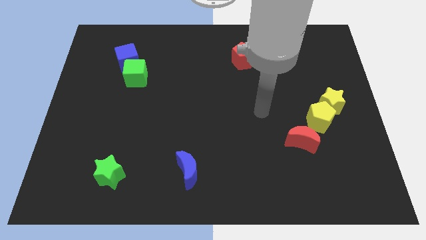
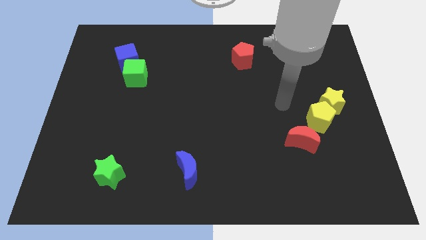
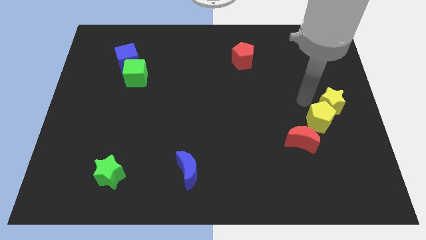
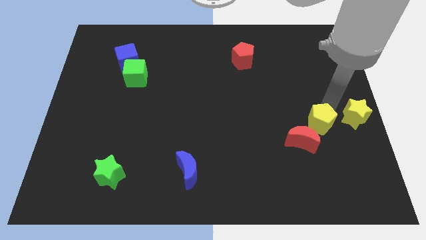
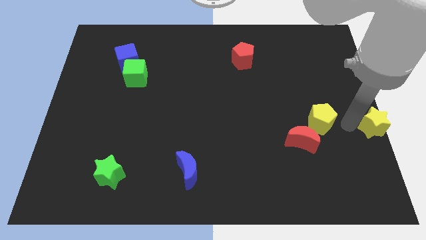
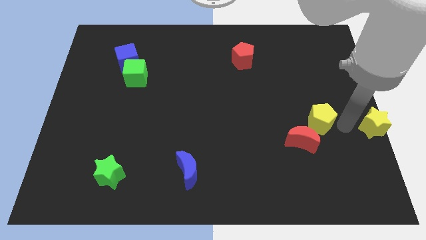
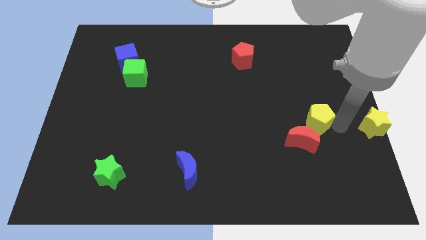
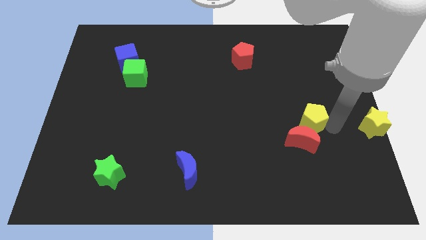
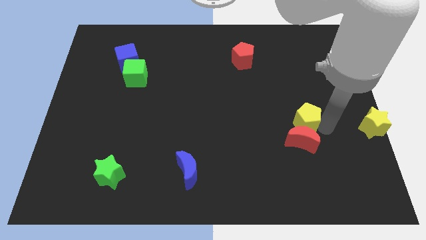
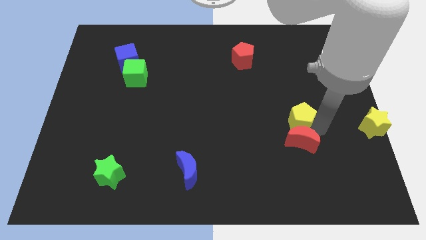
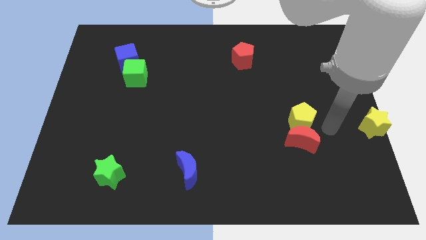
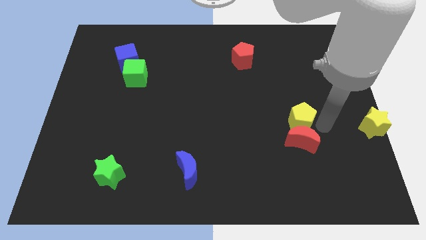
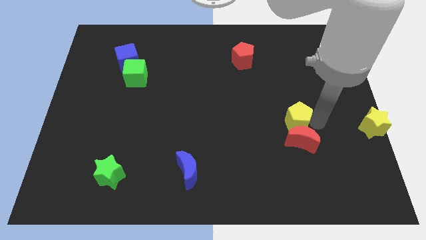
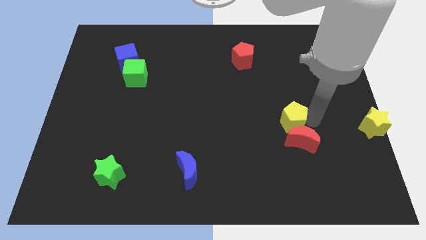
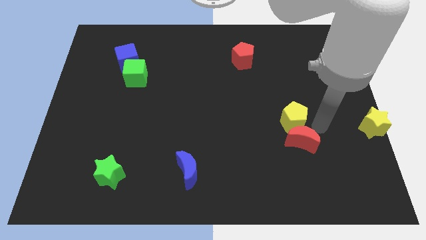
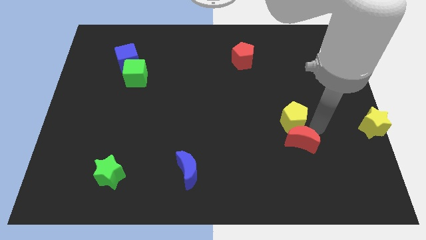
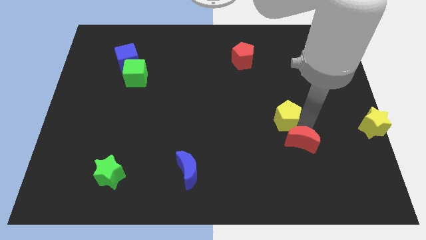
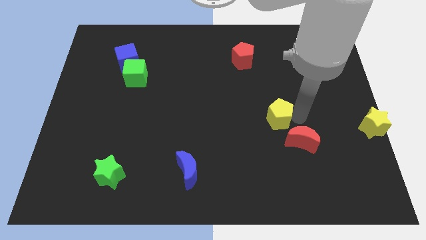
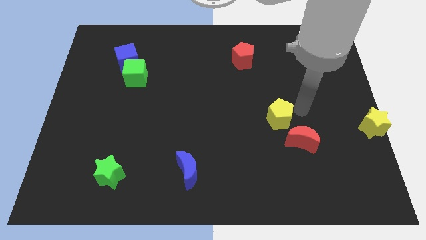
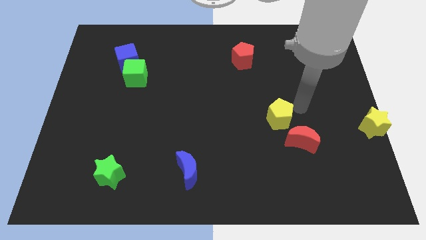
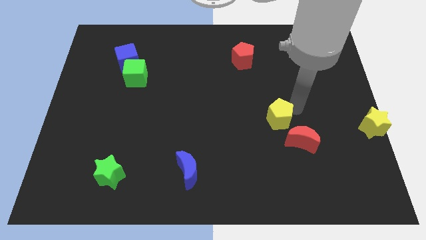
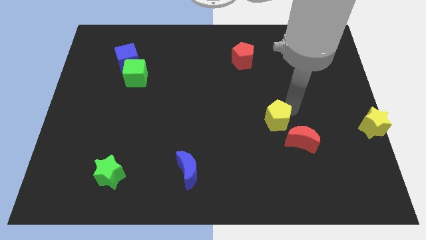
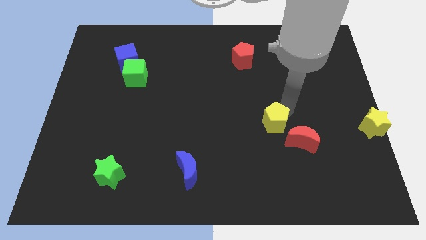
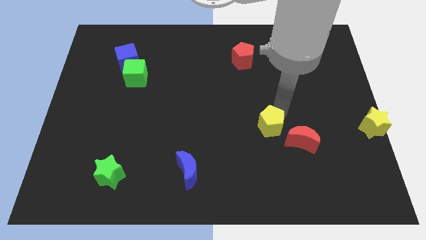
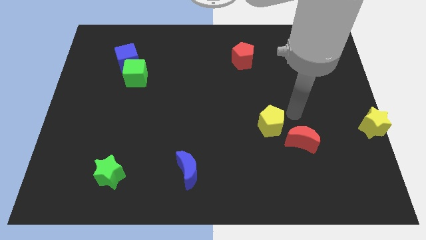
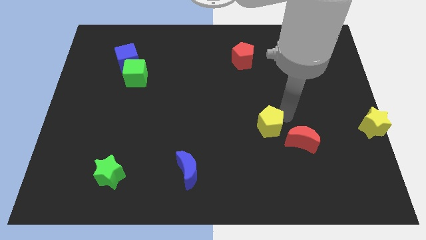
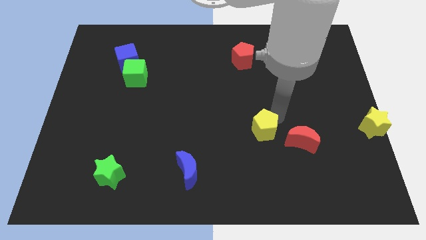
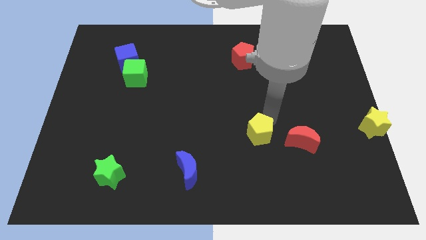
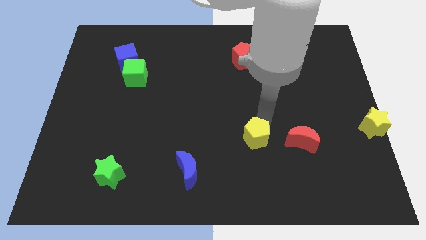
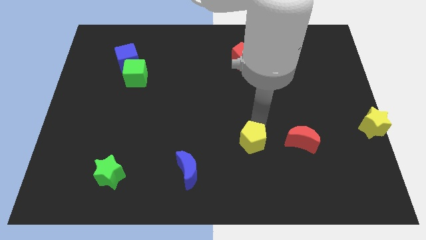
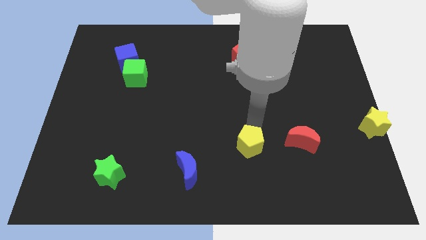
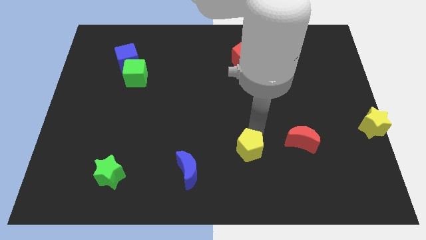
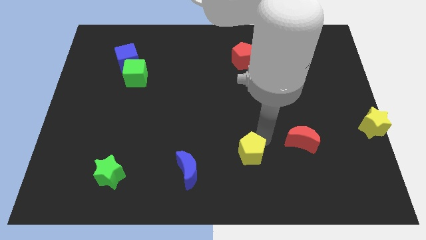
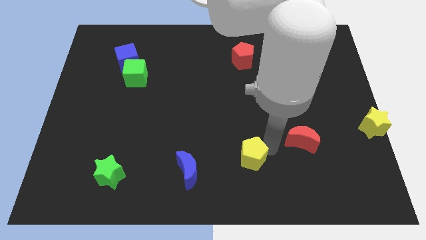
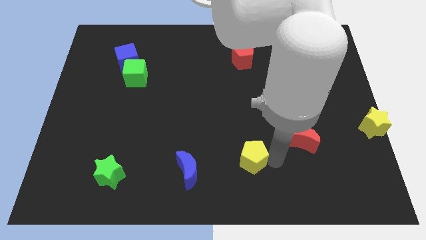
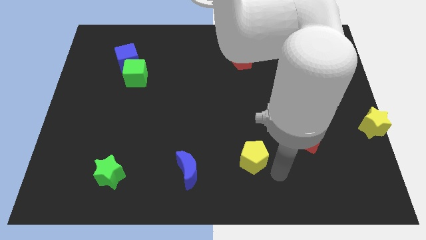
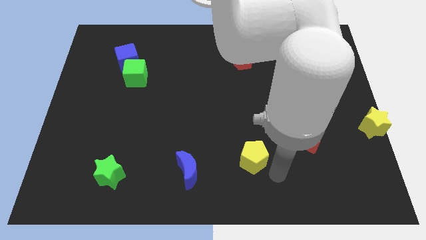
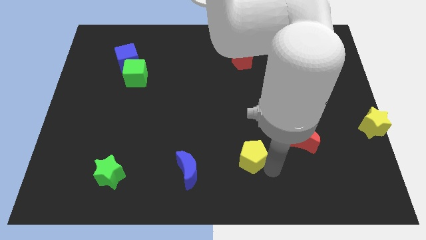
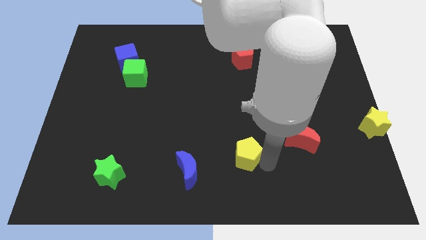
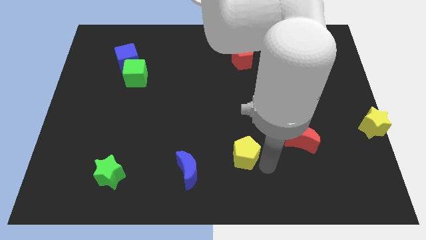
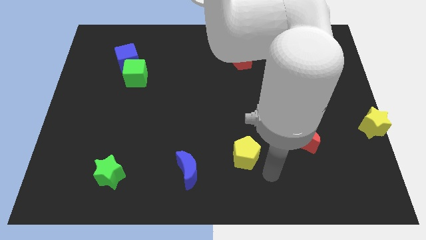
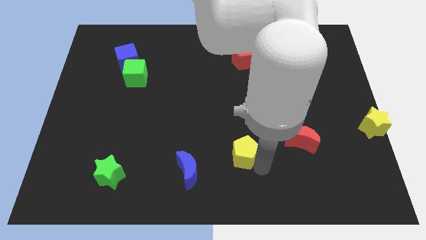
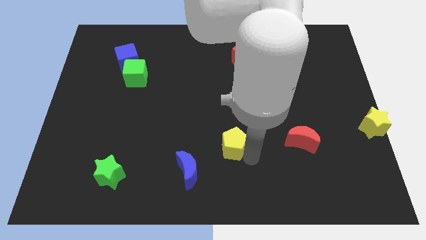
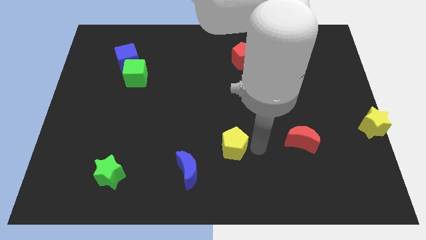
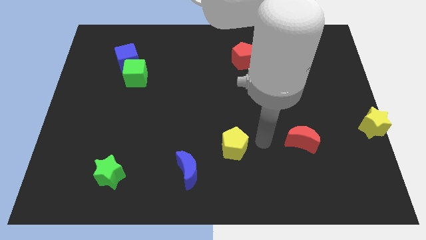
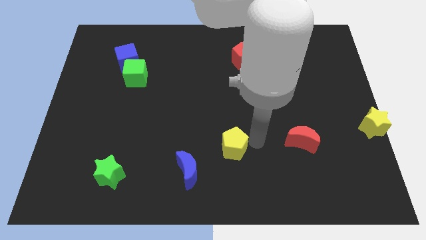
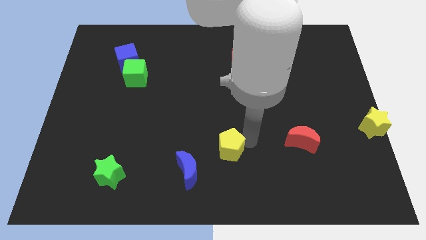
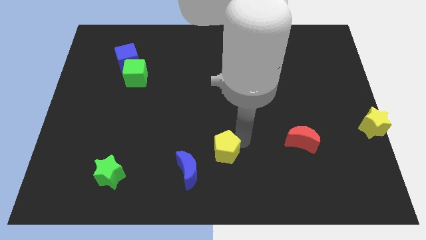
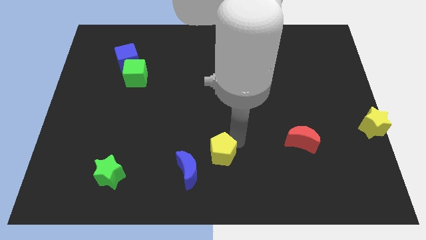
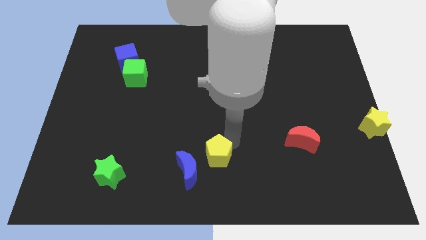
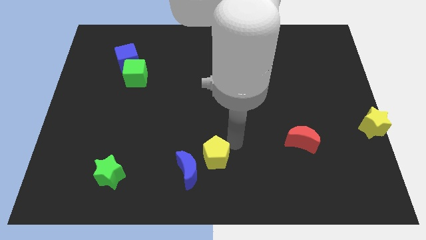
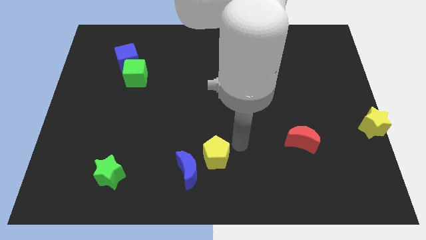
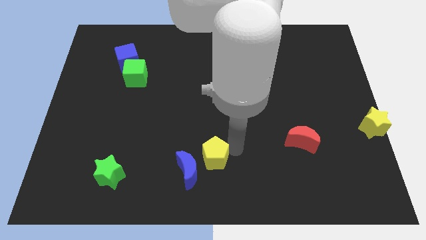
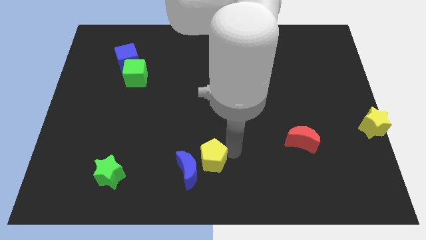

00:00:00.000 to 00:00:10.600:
move the yellow pentagon close to the blue moon

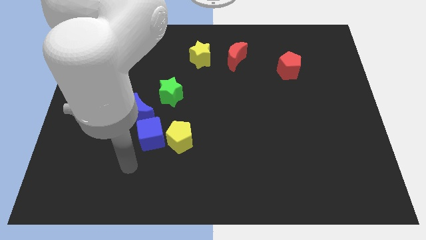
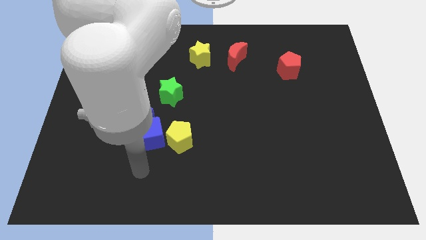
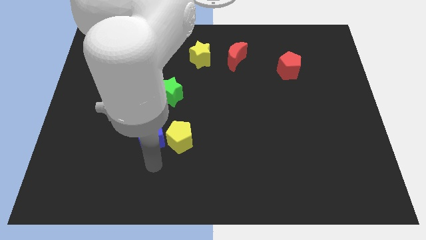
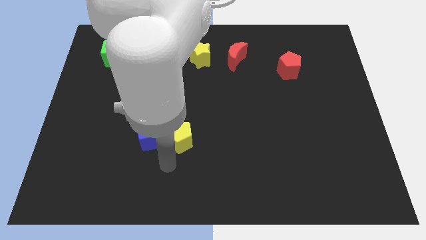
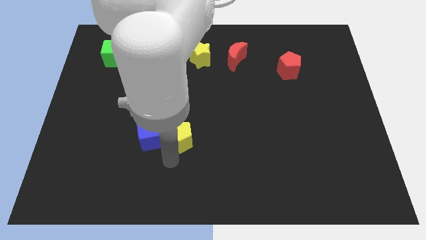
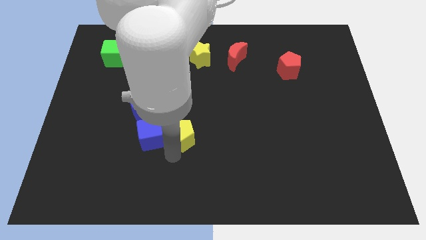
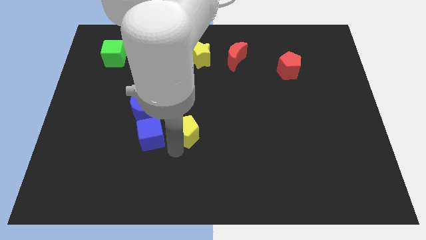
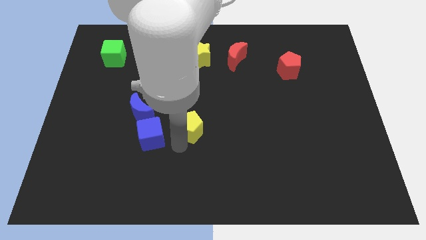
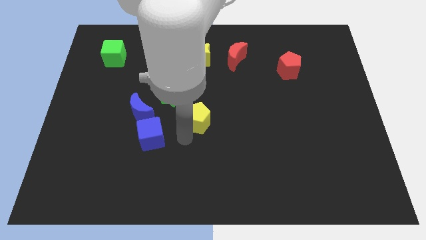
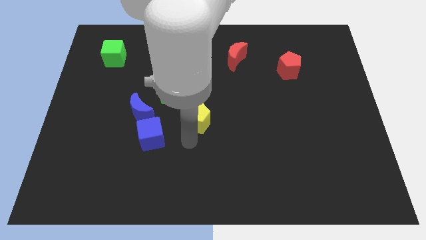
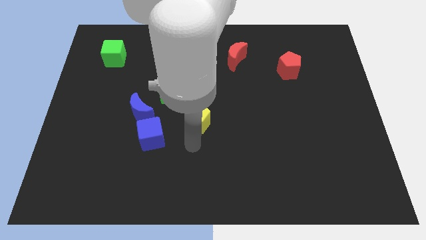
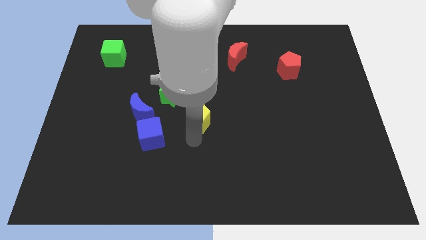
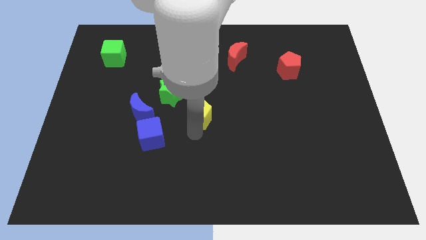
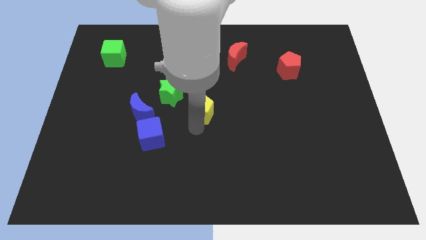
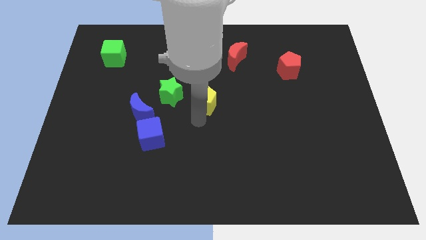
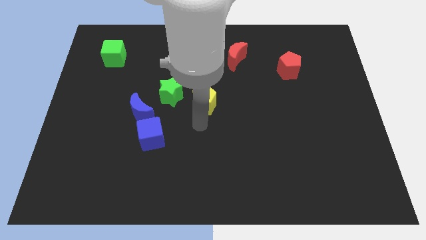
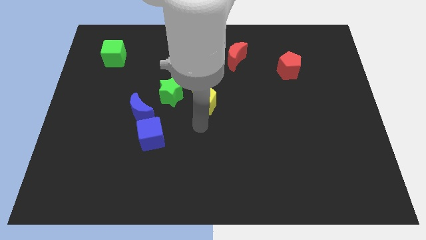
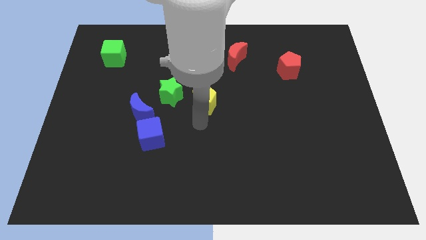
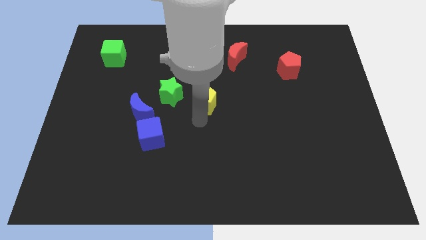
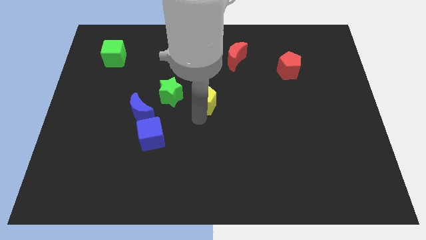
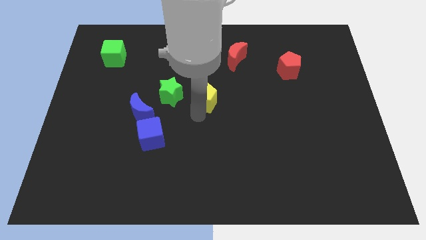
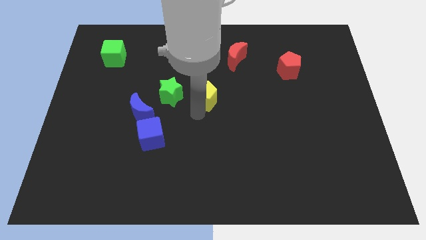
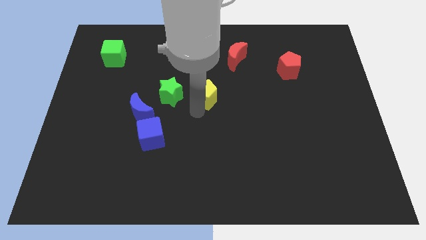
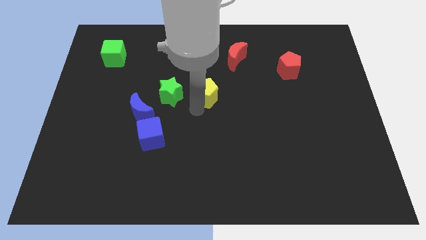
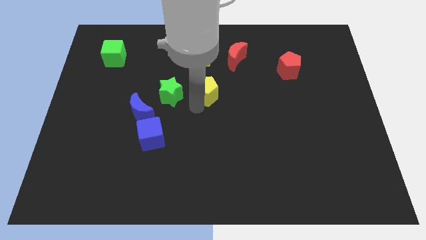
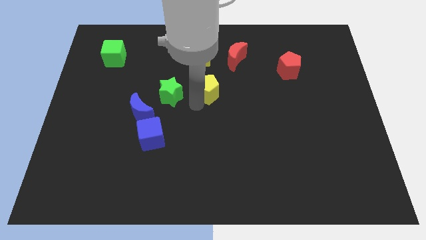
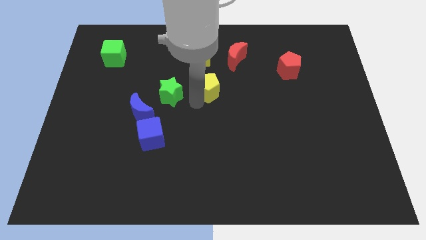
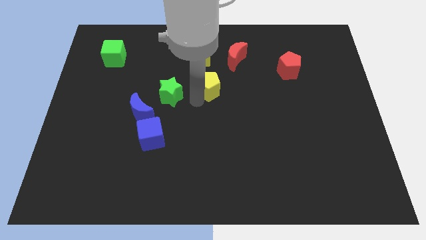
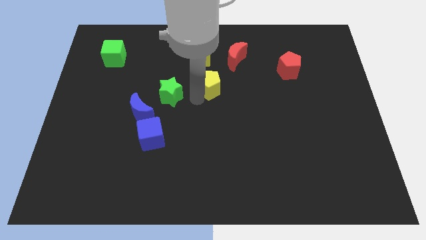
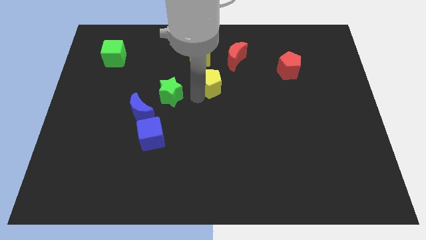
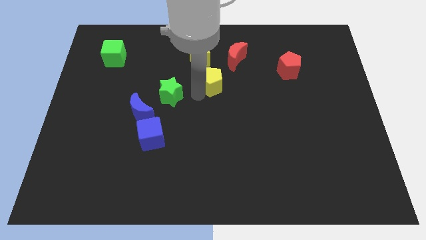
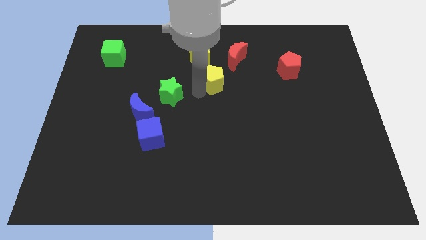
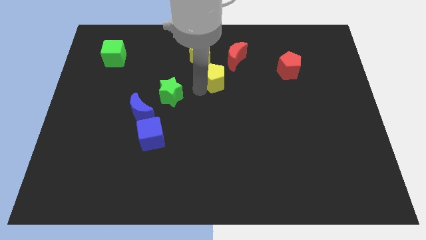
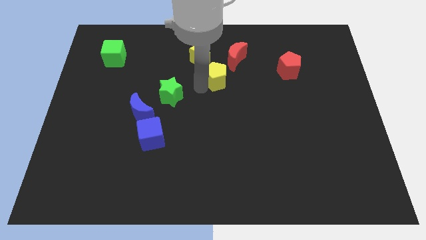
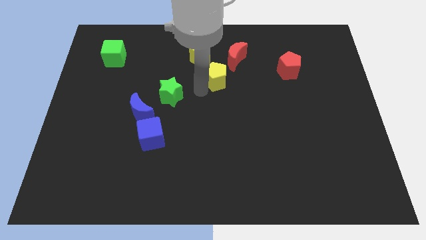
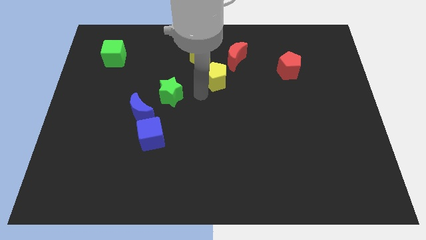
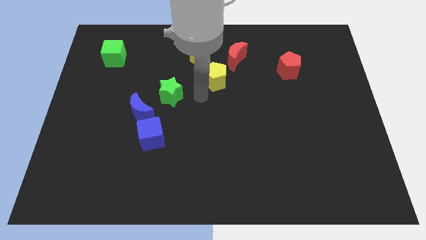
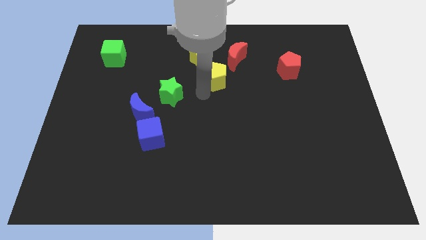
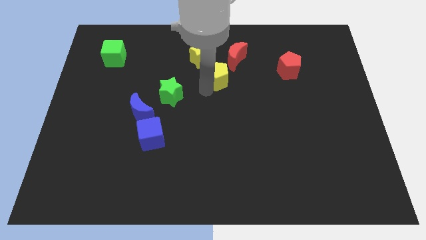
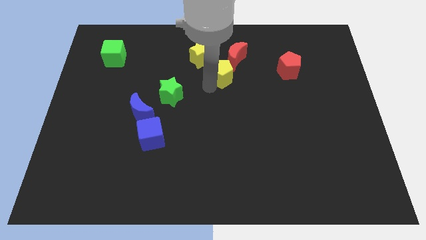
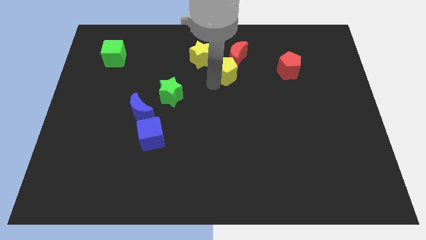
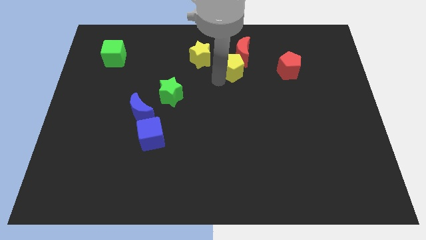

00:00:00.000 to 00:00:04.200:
push the yellow pentagon towards the red moon
